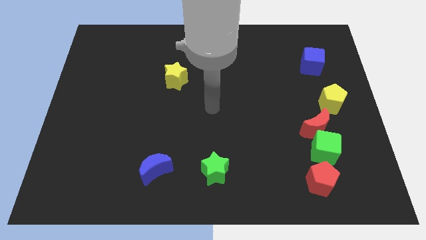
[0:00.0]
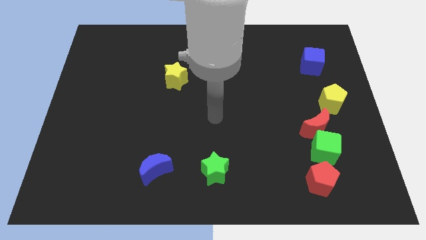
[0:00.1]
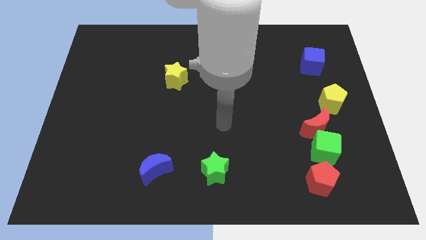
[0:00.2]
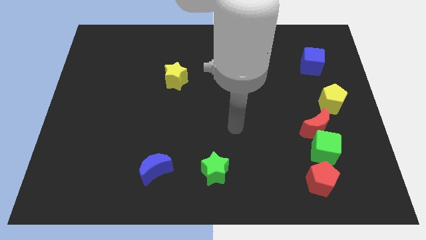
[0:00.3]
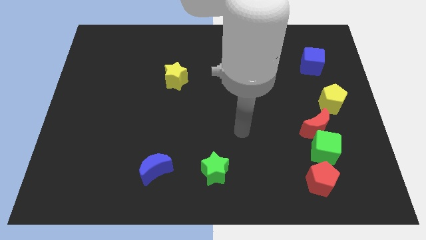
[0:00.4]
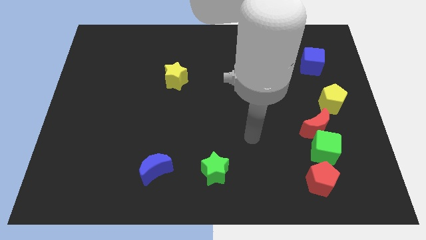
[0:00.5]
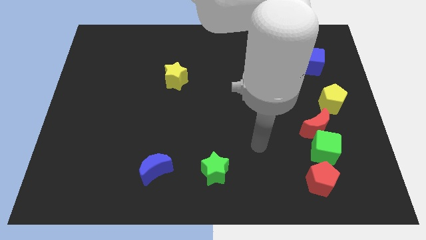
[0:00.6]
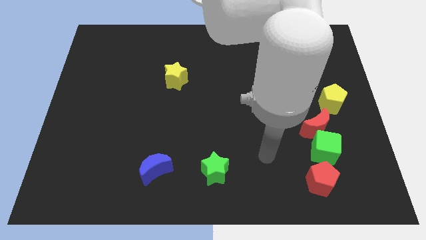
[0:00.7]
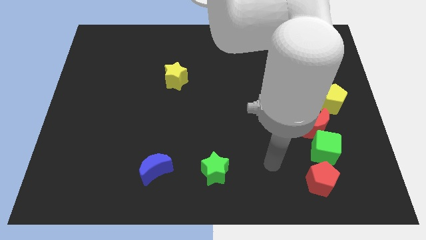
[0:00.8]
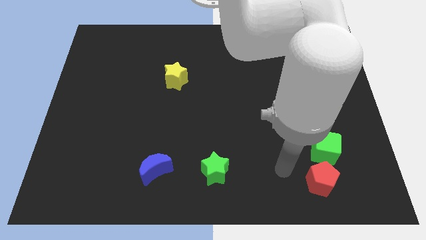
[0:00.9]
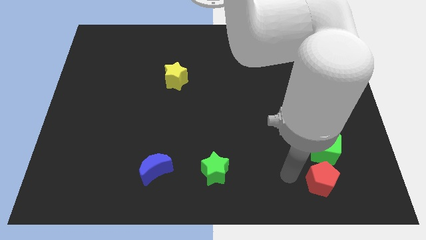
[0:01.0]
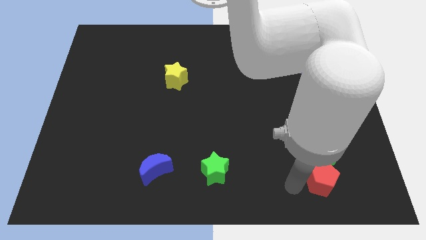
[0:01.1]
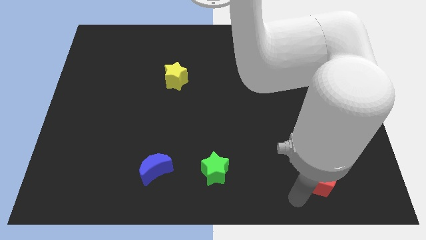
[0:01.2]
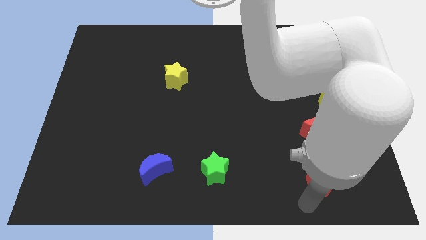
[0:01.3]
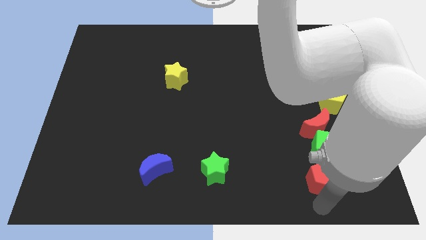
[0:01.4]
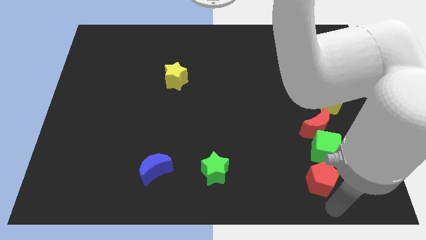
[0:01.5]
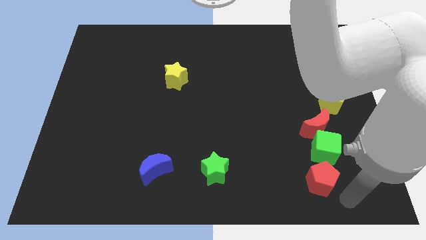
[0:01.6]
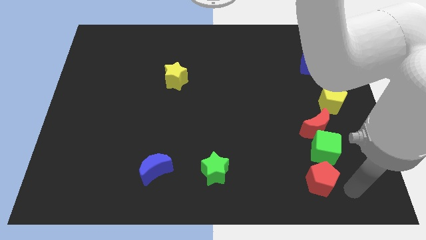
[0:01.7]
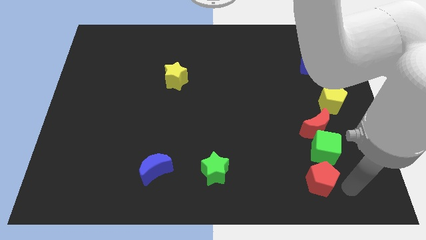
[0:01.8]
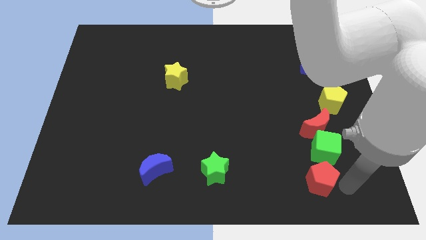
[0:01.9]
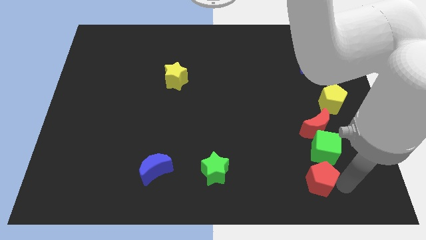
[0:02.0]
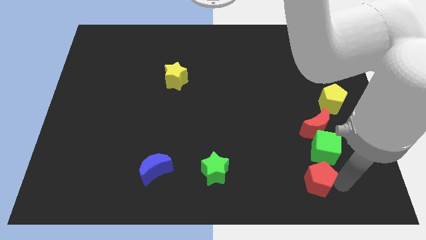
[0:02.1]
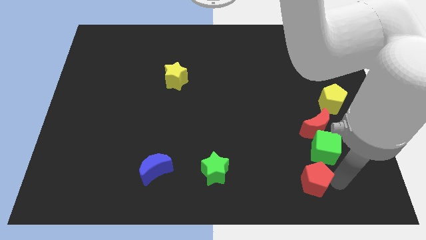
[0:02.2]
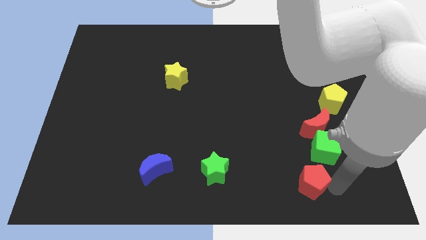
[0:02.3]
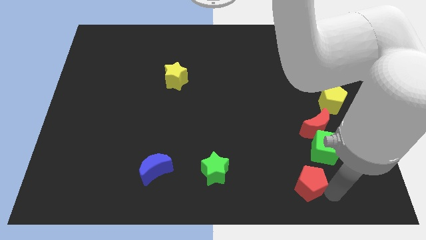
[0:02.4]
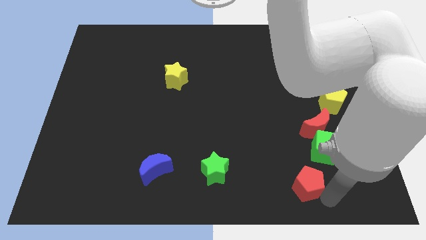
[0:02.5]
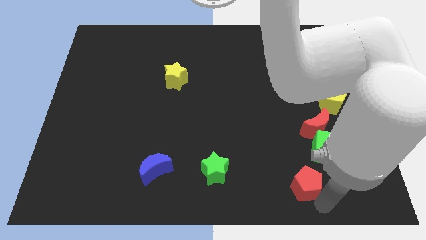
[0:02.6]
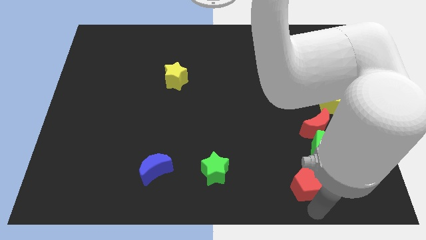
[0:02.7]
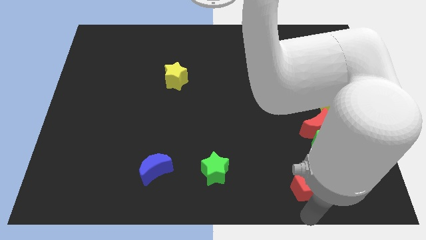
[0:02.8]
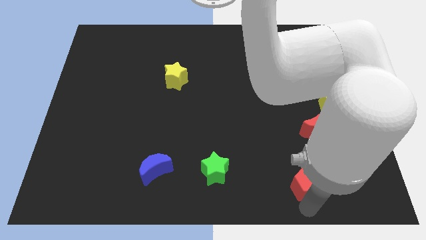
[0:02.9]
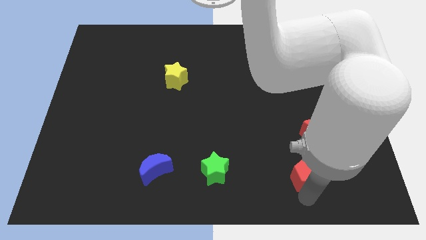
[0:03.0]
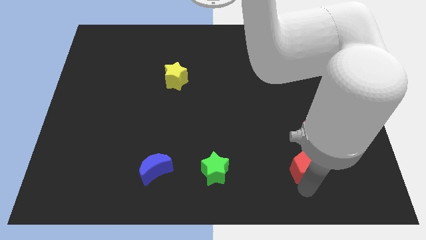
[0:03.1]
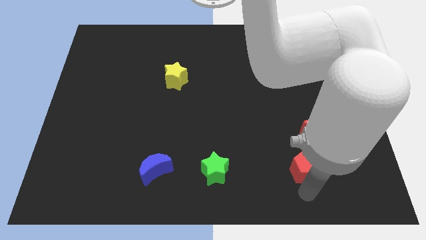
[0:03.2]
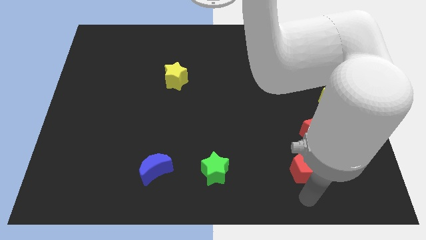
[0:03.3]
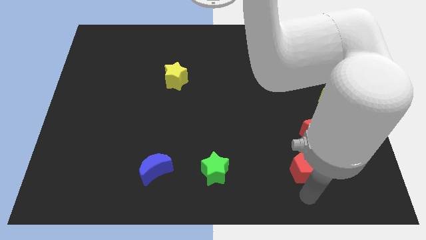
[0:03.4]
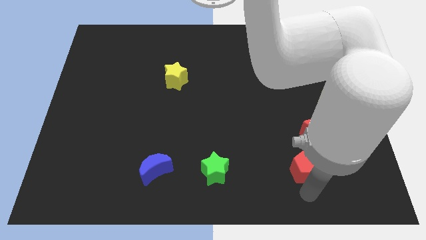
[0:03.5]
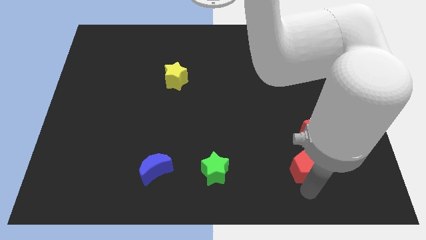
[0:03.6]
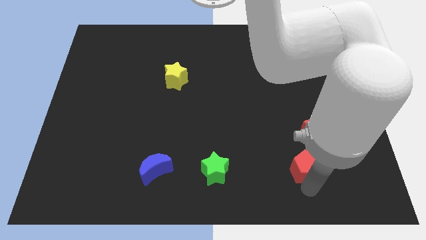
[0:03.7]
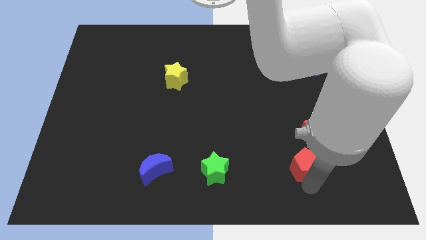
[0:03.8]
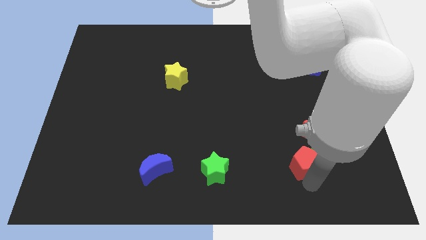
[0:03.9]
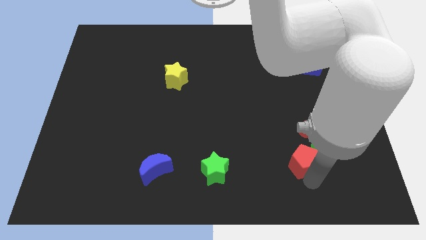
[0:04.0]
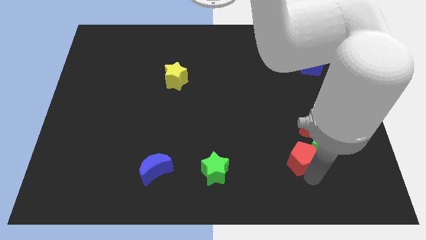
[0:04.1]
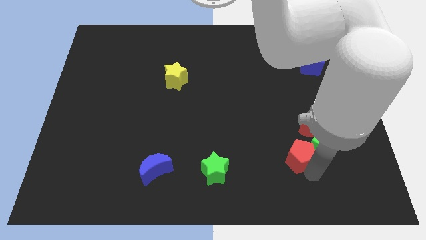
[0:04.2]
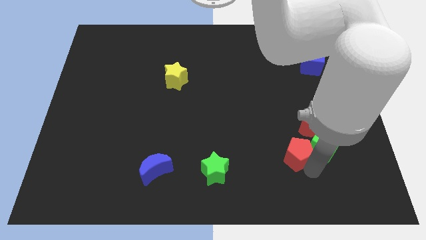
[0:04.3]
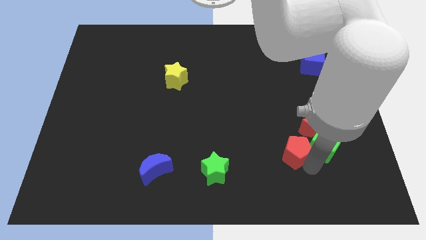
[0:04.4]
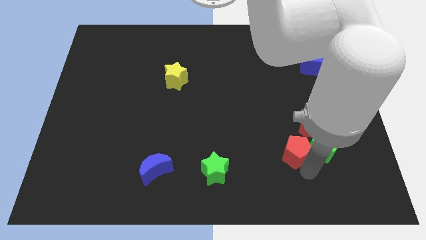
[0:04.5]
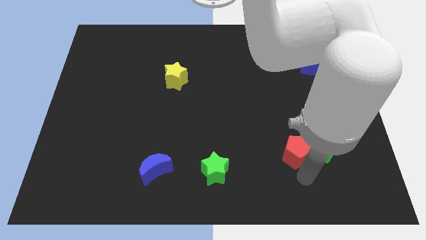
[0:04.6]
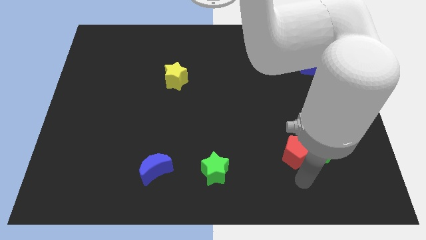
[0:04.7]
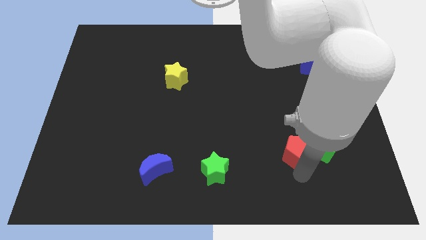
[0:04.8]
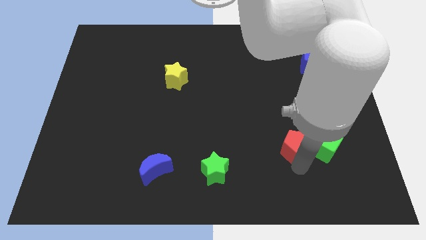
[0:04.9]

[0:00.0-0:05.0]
slightly move the red pentagon up

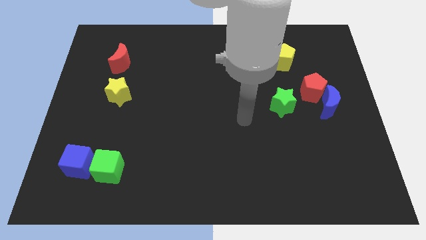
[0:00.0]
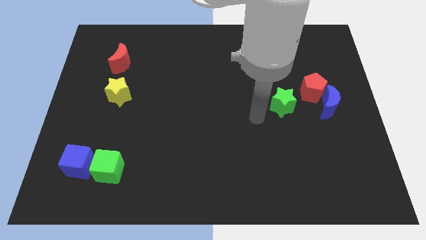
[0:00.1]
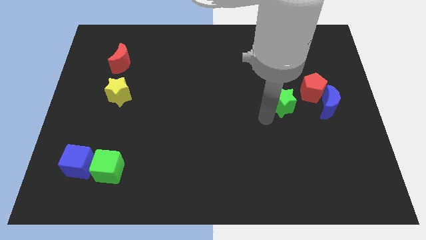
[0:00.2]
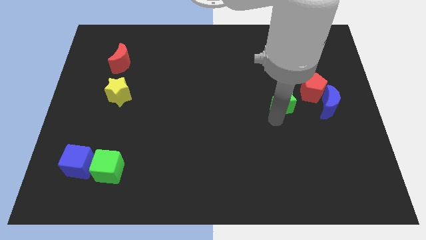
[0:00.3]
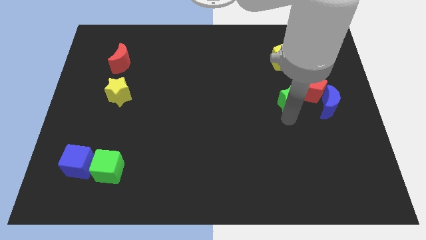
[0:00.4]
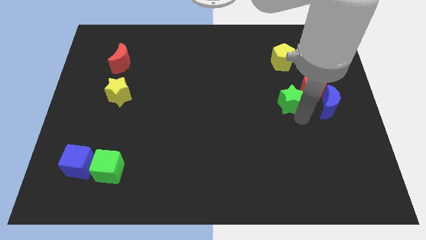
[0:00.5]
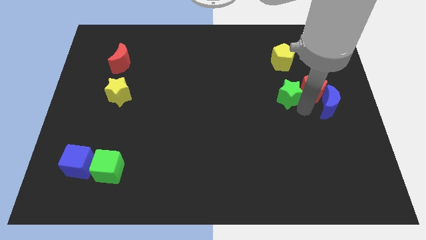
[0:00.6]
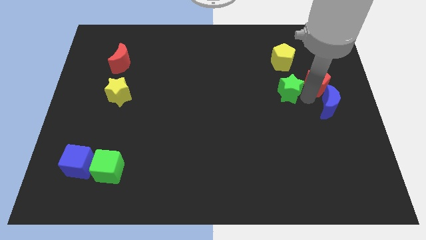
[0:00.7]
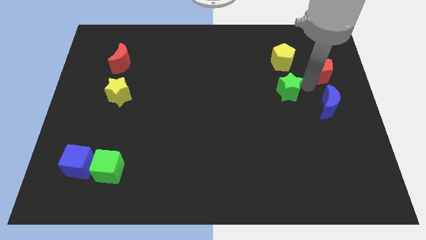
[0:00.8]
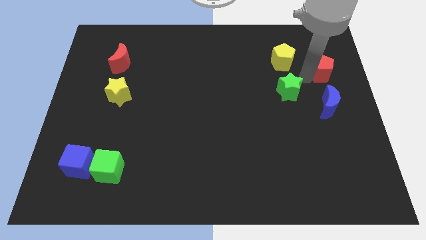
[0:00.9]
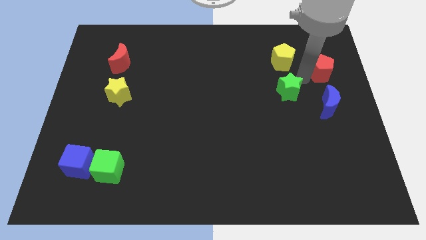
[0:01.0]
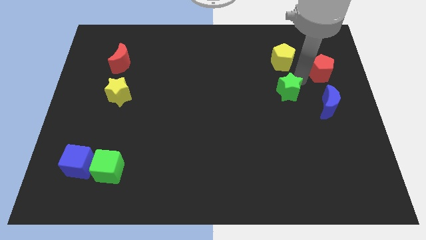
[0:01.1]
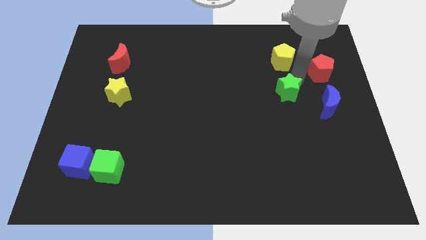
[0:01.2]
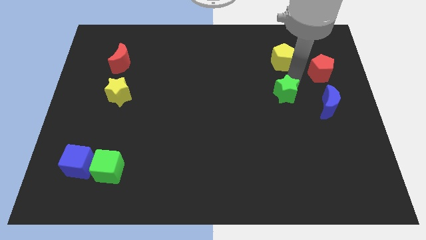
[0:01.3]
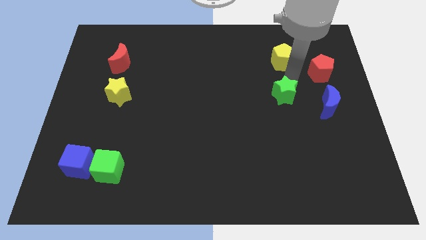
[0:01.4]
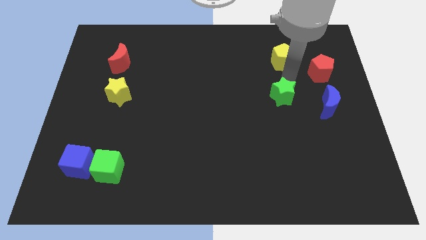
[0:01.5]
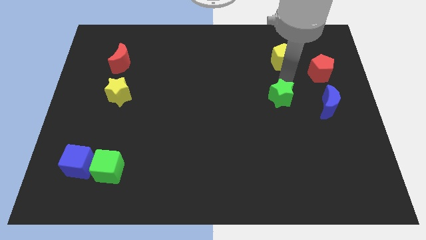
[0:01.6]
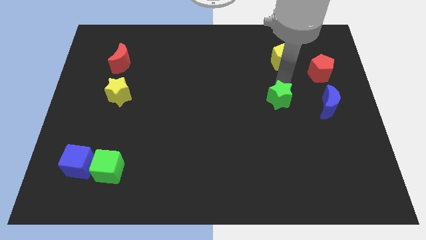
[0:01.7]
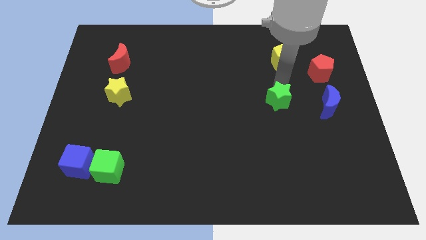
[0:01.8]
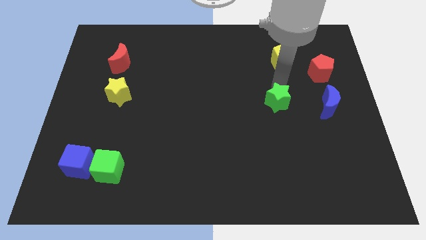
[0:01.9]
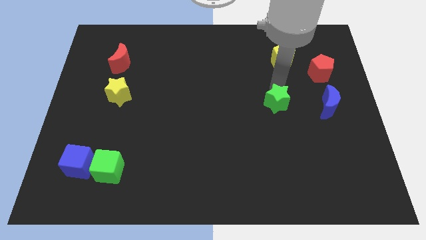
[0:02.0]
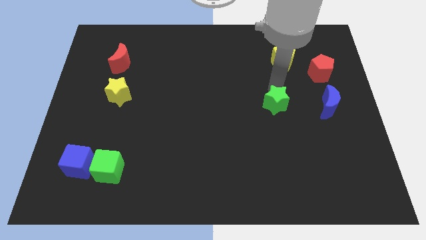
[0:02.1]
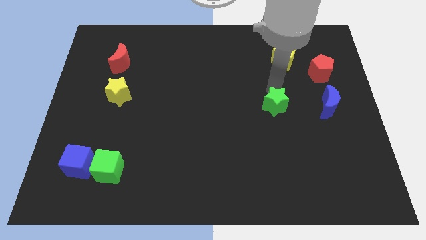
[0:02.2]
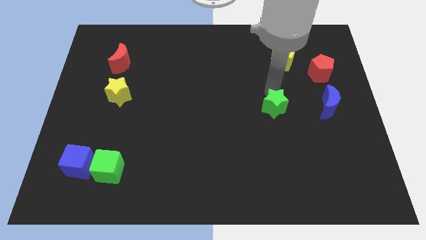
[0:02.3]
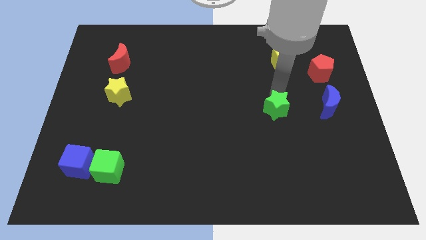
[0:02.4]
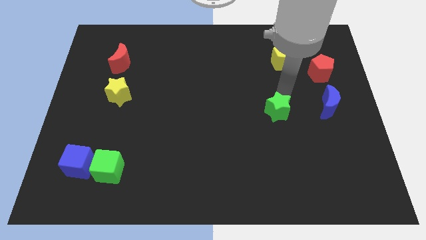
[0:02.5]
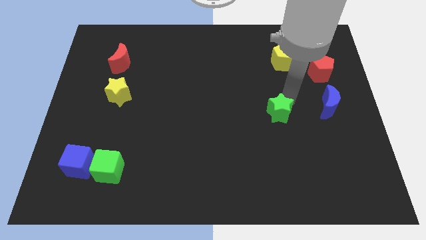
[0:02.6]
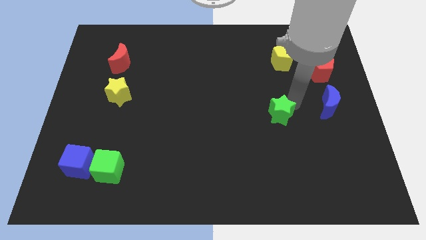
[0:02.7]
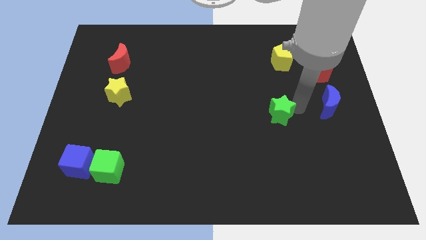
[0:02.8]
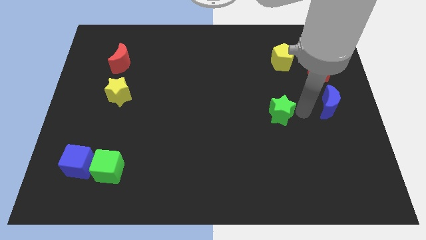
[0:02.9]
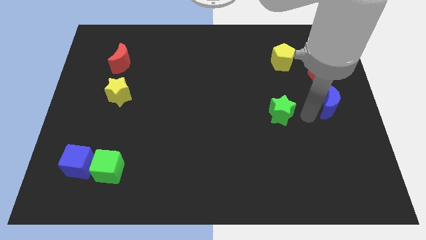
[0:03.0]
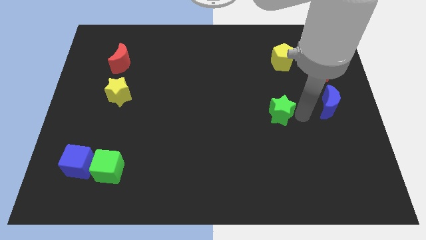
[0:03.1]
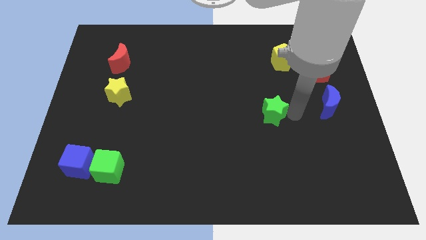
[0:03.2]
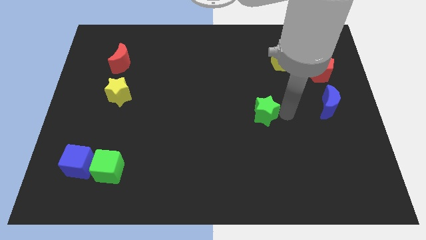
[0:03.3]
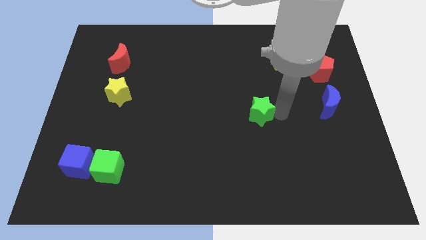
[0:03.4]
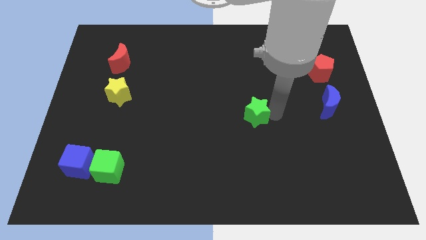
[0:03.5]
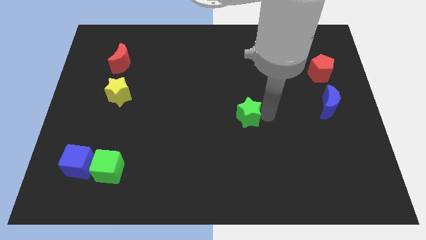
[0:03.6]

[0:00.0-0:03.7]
slide the green star slightly to the left
